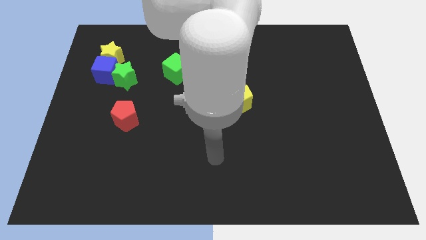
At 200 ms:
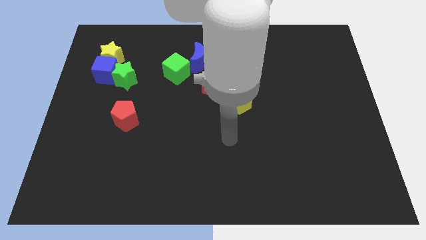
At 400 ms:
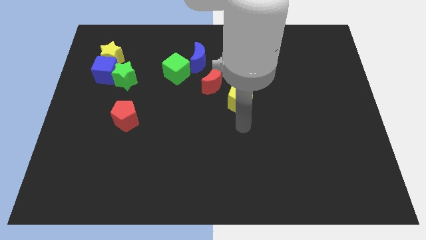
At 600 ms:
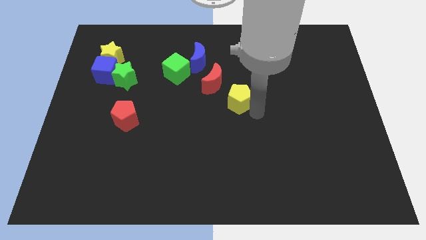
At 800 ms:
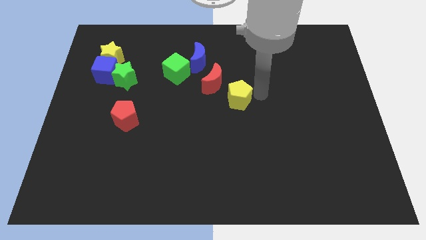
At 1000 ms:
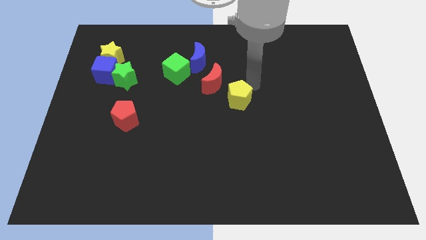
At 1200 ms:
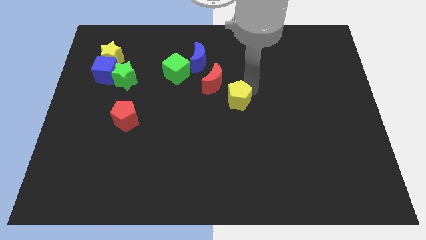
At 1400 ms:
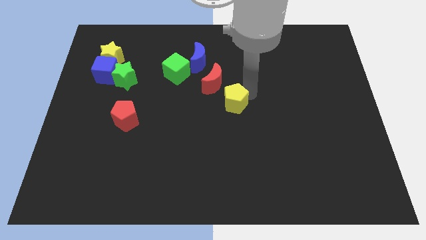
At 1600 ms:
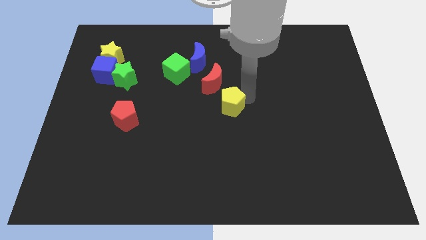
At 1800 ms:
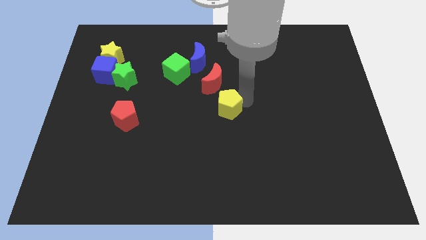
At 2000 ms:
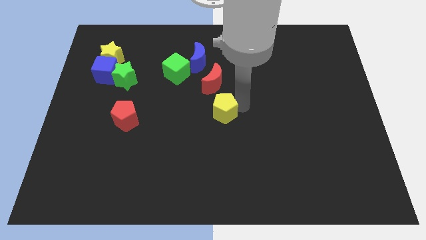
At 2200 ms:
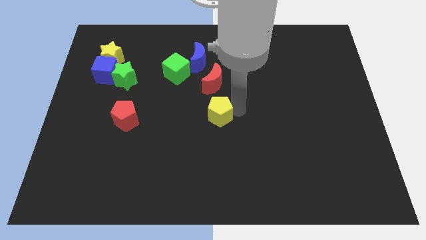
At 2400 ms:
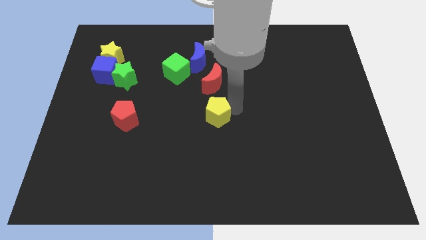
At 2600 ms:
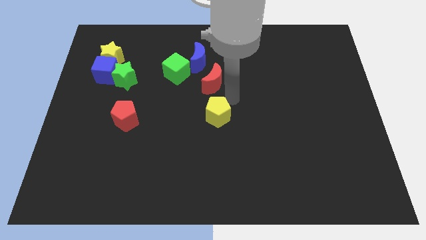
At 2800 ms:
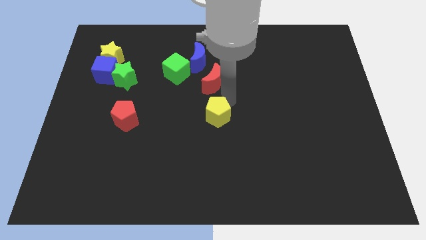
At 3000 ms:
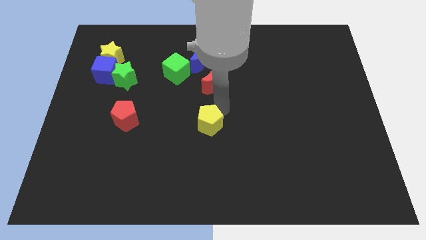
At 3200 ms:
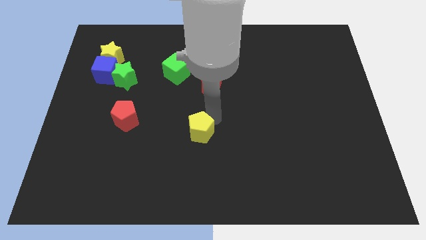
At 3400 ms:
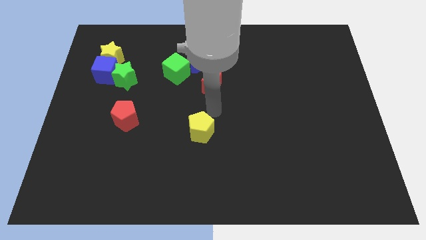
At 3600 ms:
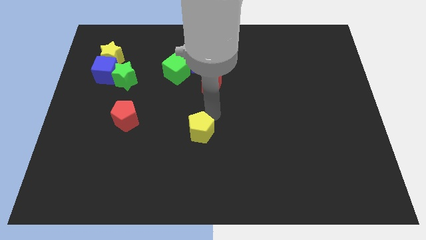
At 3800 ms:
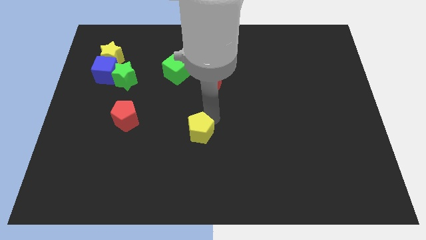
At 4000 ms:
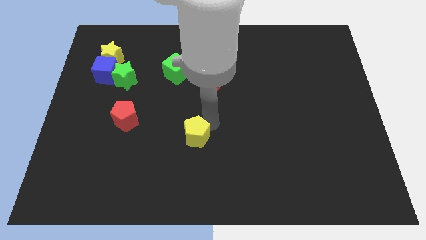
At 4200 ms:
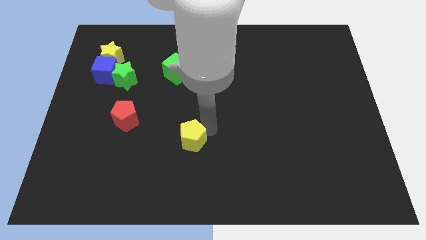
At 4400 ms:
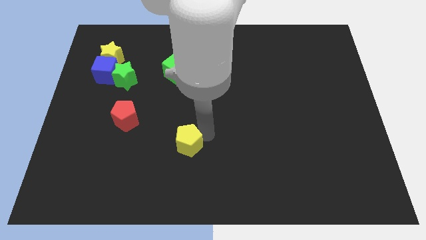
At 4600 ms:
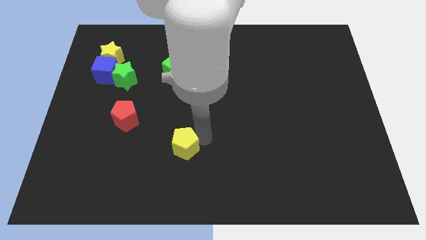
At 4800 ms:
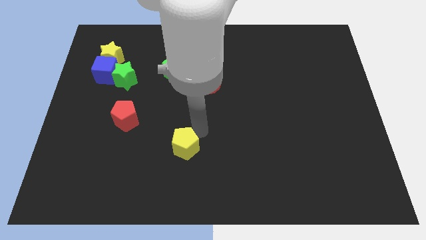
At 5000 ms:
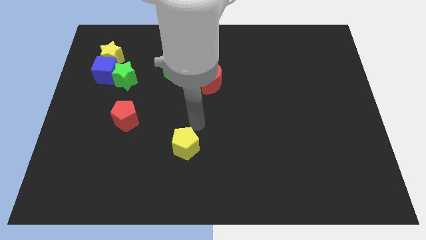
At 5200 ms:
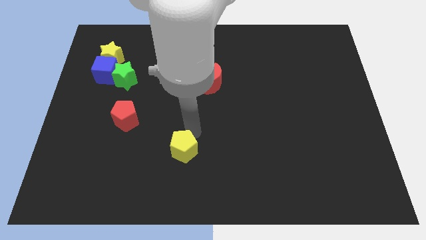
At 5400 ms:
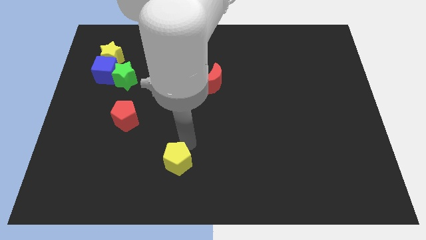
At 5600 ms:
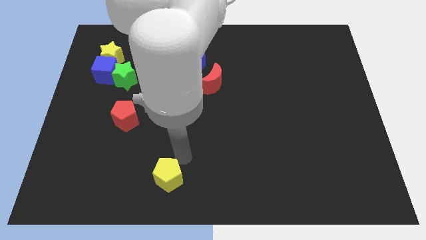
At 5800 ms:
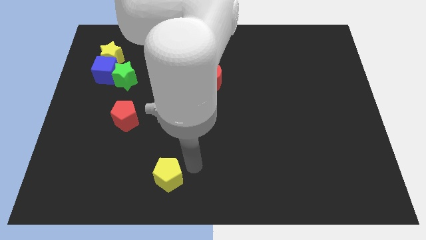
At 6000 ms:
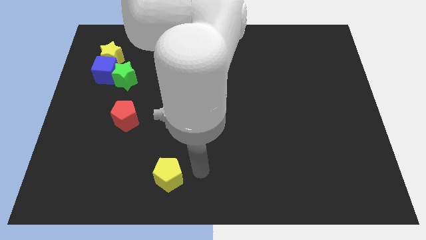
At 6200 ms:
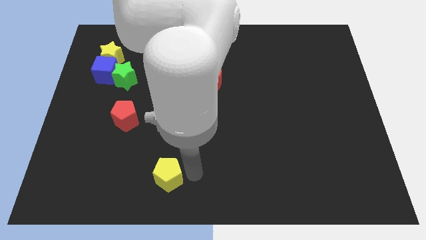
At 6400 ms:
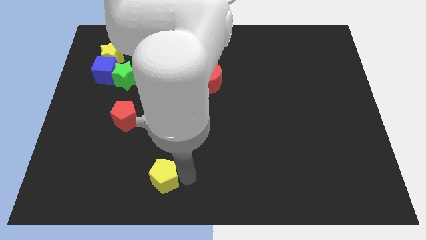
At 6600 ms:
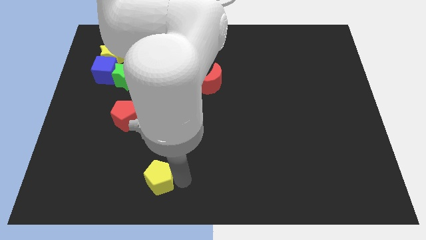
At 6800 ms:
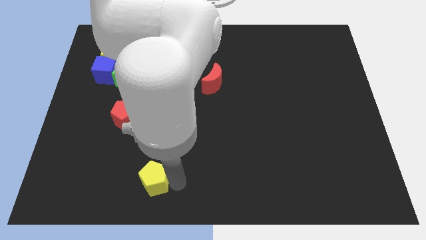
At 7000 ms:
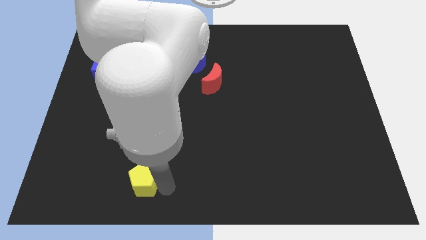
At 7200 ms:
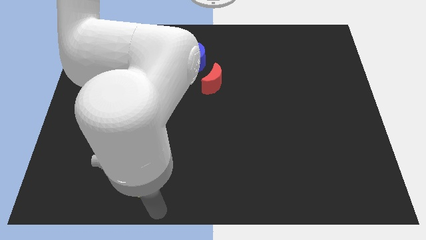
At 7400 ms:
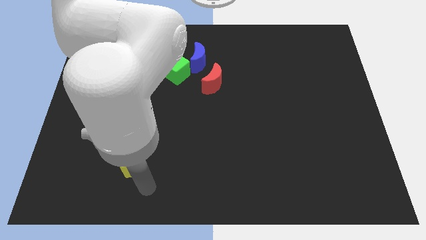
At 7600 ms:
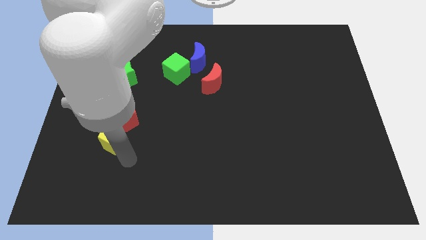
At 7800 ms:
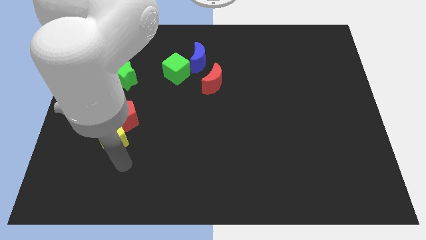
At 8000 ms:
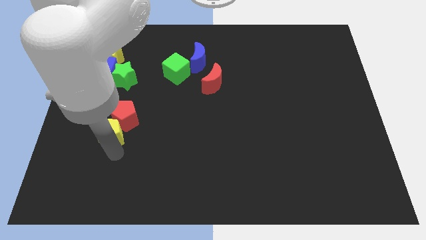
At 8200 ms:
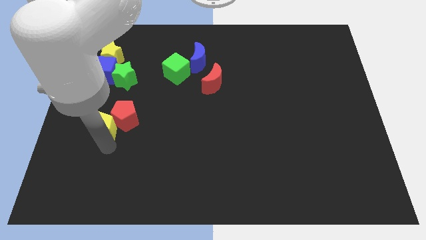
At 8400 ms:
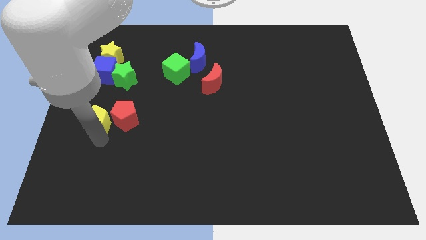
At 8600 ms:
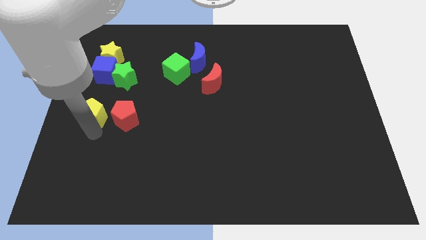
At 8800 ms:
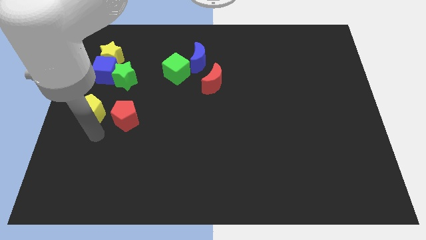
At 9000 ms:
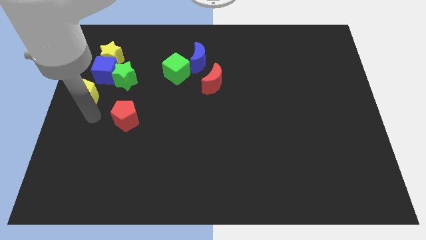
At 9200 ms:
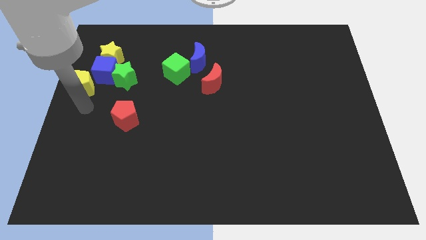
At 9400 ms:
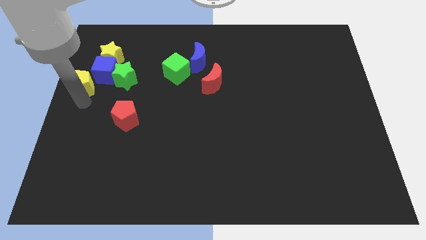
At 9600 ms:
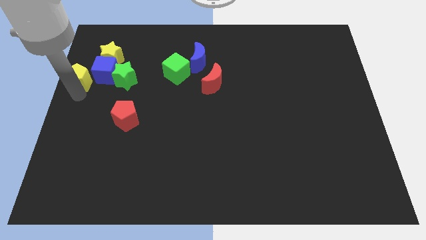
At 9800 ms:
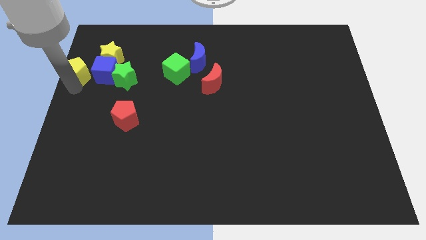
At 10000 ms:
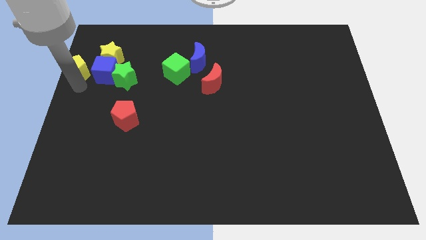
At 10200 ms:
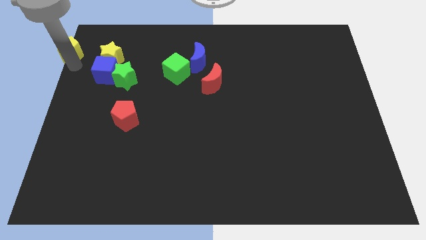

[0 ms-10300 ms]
slide the yellow pentagon to the top left of the board

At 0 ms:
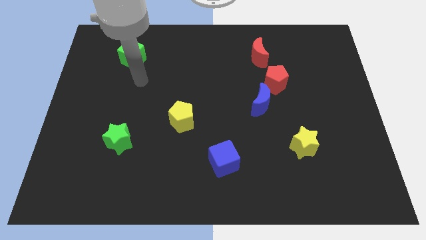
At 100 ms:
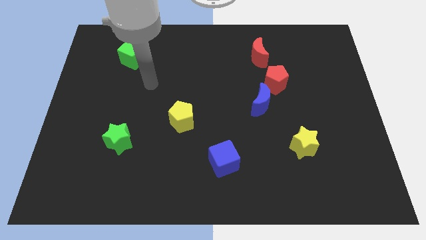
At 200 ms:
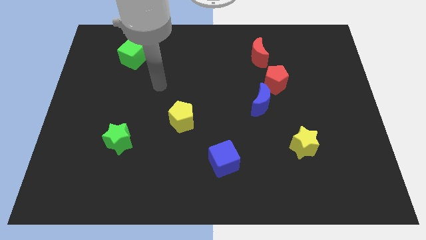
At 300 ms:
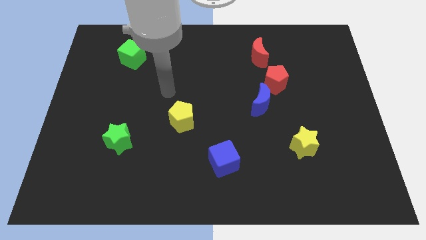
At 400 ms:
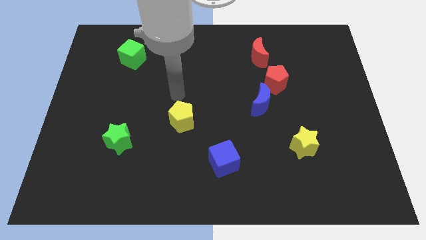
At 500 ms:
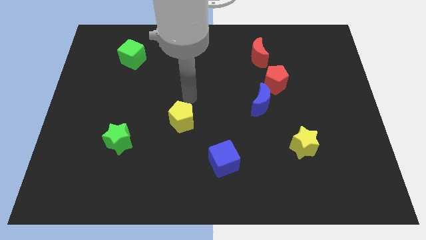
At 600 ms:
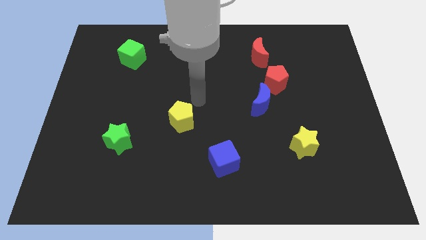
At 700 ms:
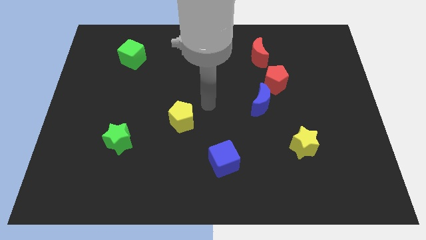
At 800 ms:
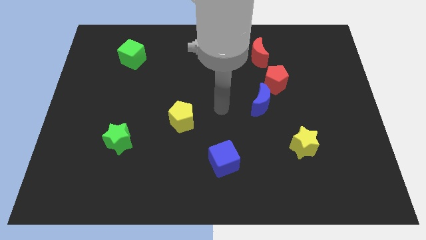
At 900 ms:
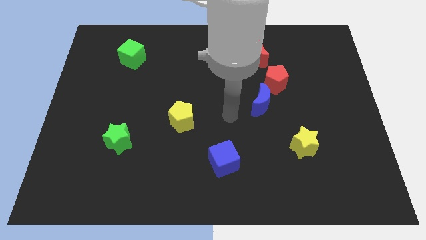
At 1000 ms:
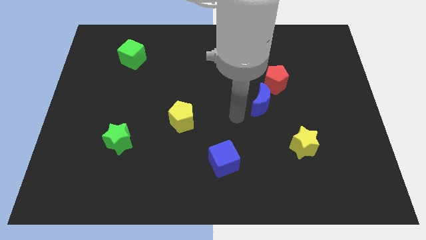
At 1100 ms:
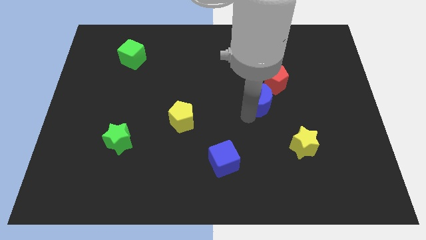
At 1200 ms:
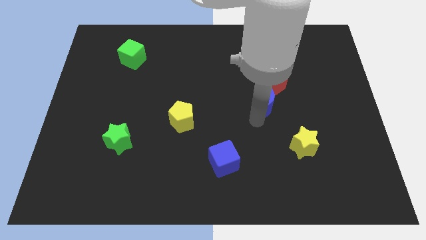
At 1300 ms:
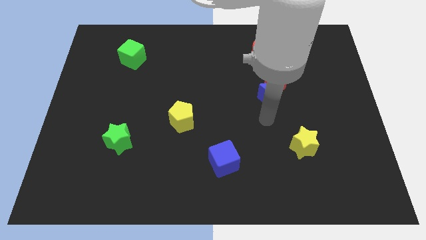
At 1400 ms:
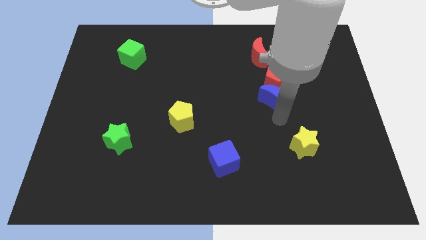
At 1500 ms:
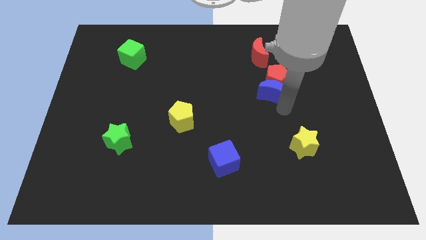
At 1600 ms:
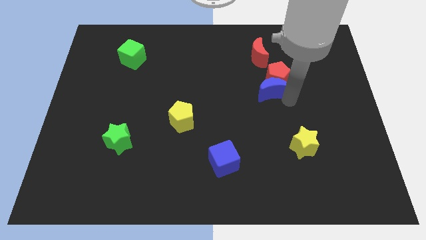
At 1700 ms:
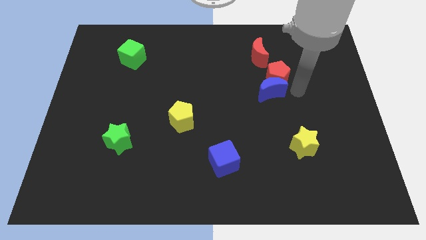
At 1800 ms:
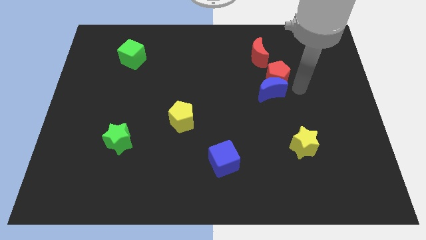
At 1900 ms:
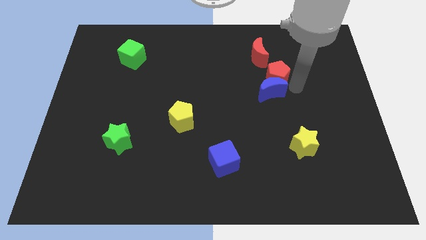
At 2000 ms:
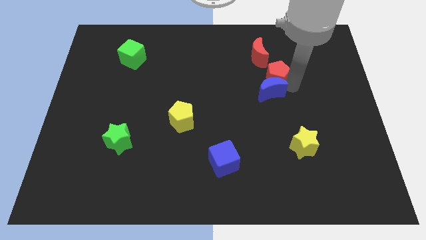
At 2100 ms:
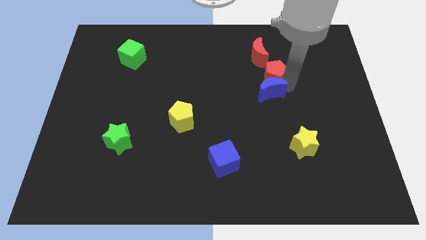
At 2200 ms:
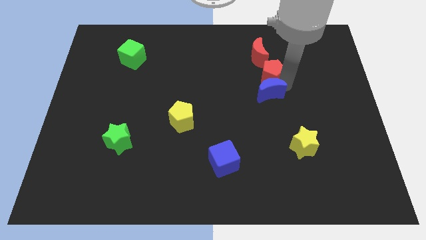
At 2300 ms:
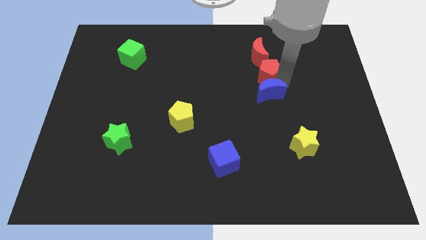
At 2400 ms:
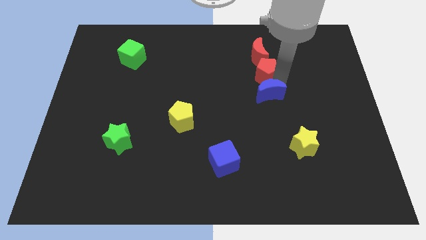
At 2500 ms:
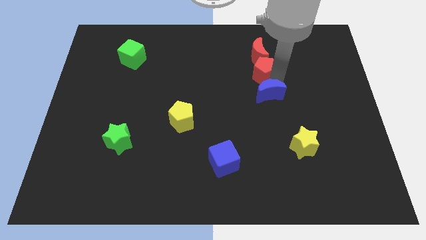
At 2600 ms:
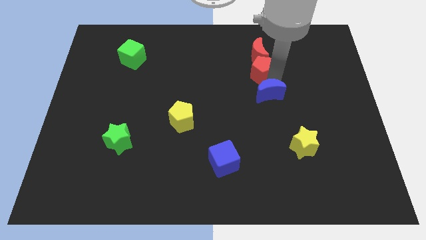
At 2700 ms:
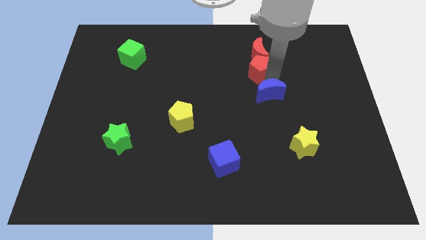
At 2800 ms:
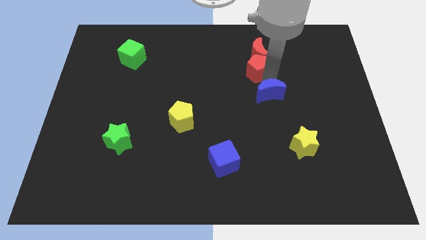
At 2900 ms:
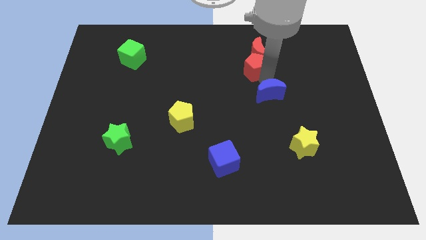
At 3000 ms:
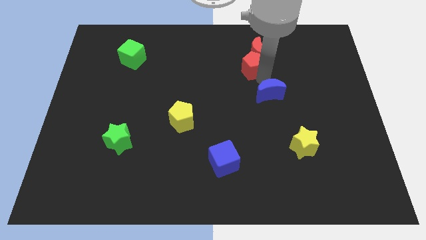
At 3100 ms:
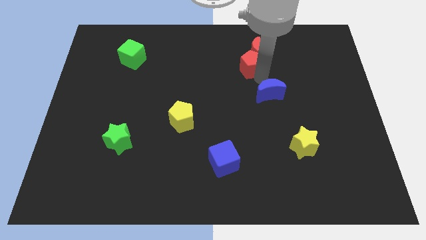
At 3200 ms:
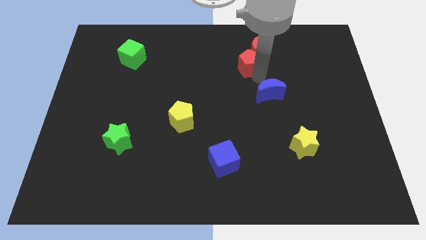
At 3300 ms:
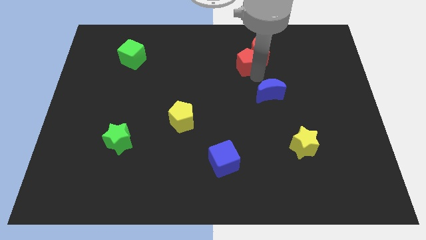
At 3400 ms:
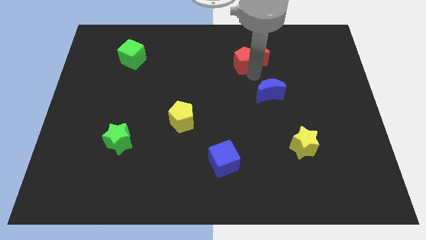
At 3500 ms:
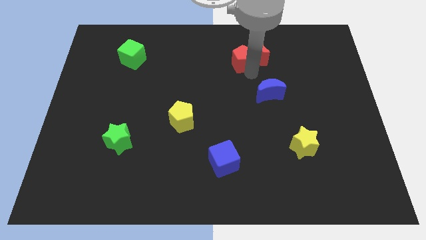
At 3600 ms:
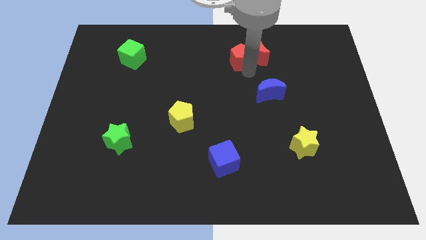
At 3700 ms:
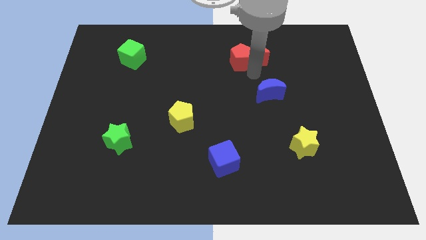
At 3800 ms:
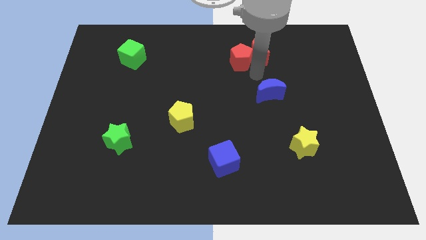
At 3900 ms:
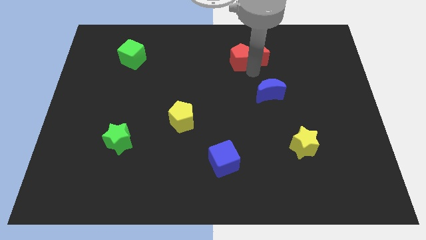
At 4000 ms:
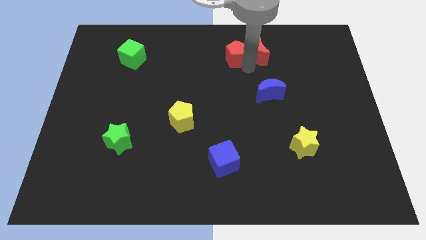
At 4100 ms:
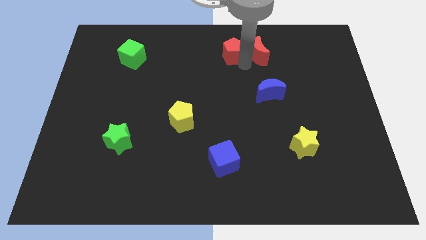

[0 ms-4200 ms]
push the red pentagon to the towards your base
